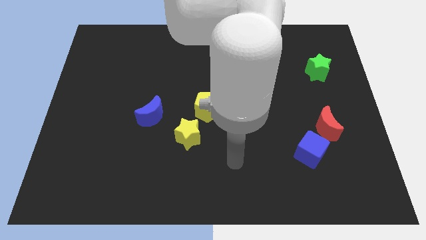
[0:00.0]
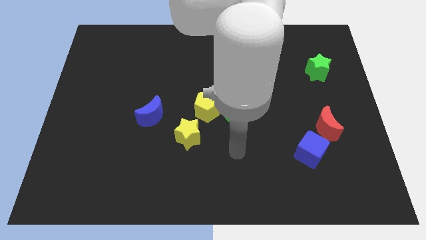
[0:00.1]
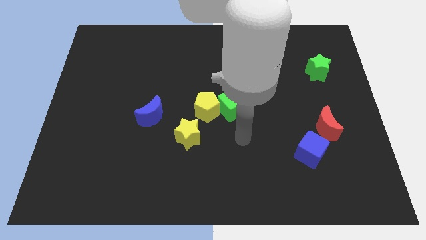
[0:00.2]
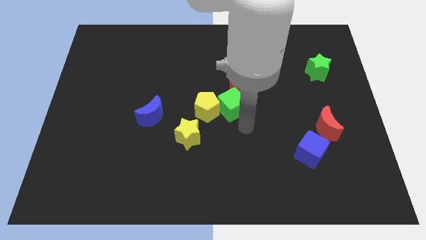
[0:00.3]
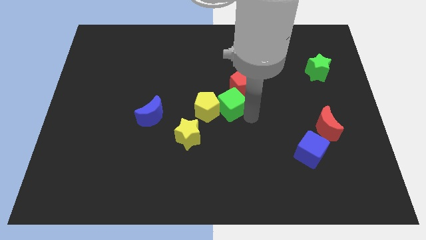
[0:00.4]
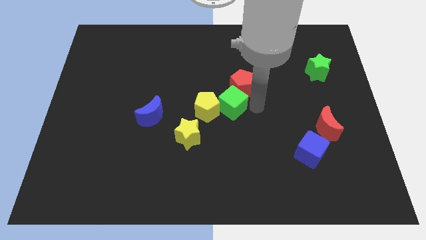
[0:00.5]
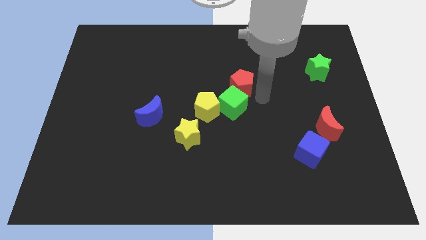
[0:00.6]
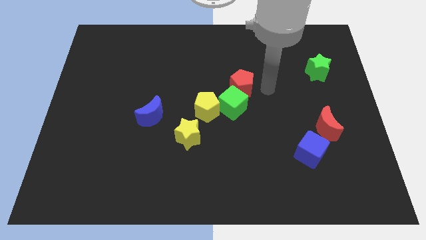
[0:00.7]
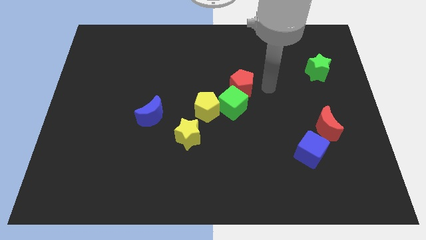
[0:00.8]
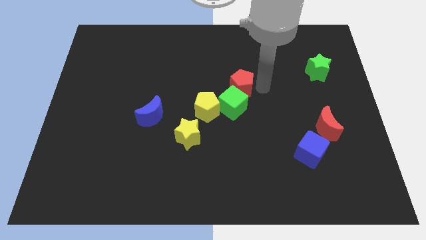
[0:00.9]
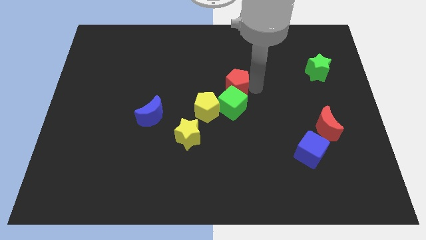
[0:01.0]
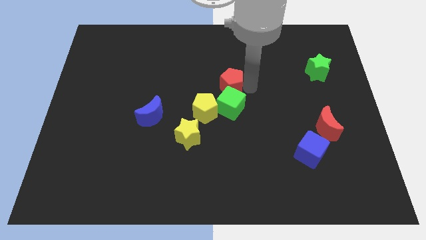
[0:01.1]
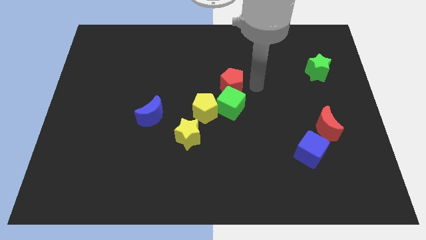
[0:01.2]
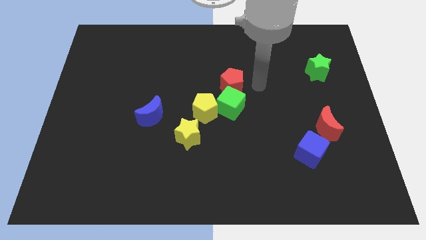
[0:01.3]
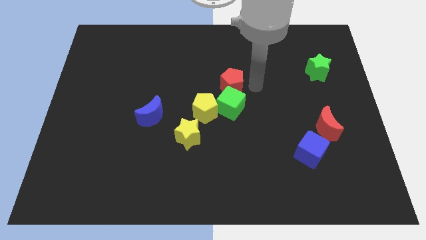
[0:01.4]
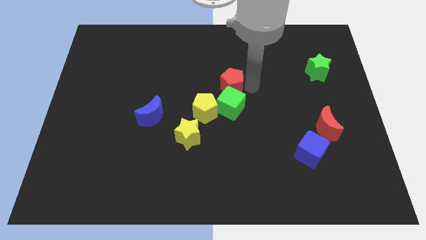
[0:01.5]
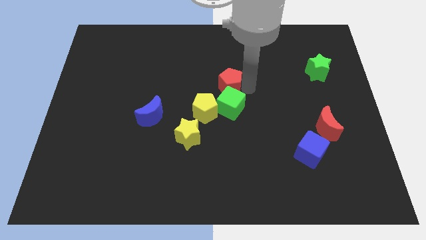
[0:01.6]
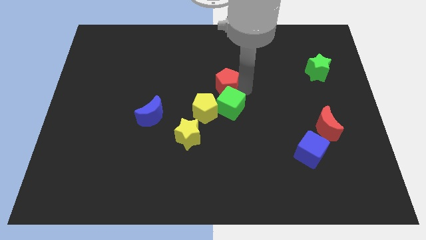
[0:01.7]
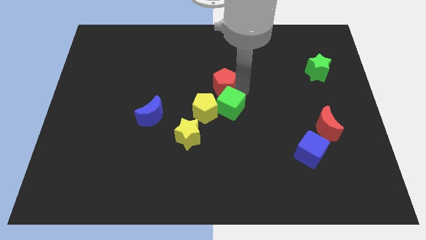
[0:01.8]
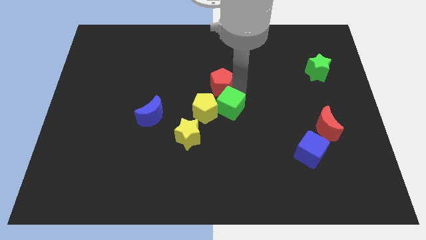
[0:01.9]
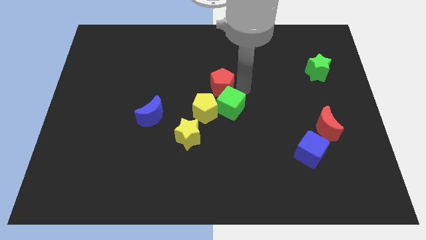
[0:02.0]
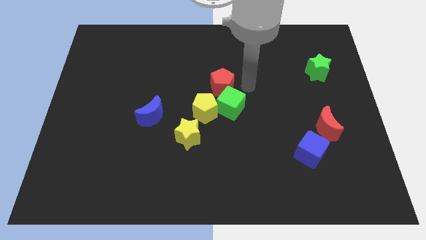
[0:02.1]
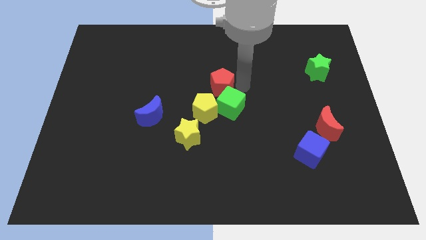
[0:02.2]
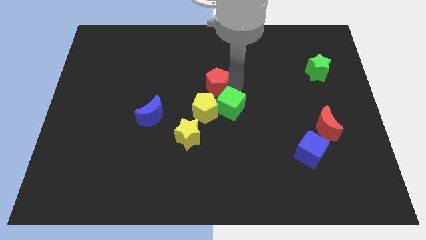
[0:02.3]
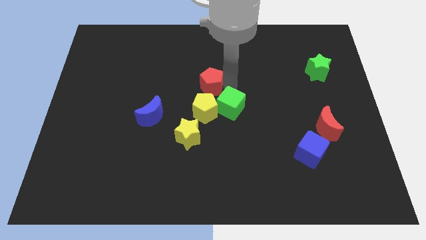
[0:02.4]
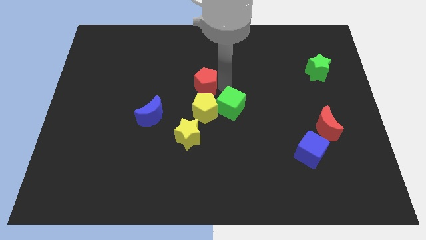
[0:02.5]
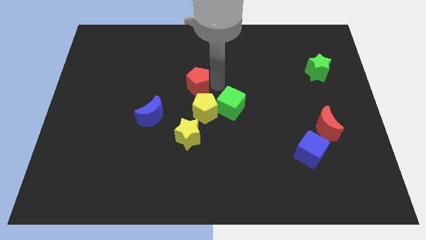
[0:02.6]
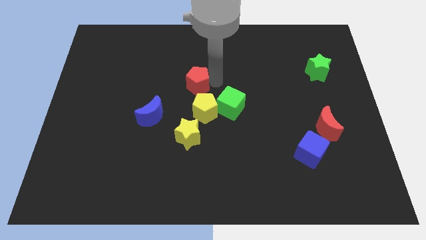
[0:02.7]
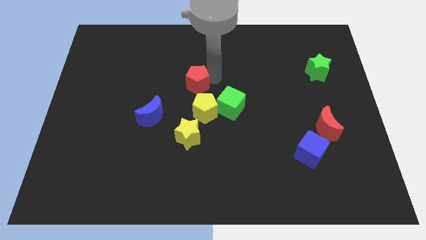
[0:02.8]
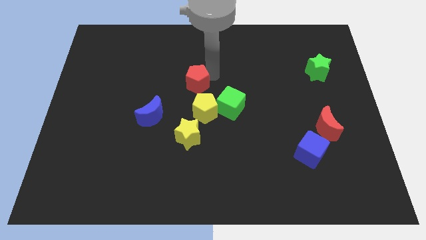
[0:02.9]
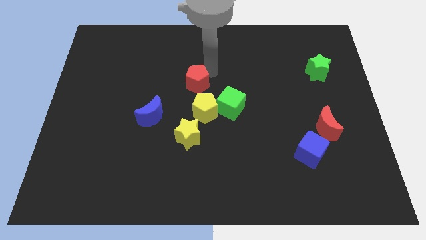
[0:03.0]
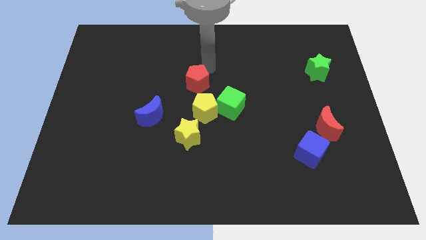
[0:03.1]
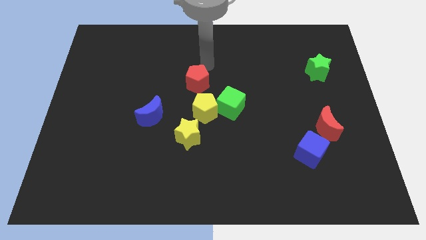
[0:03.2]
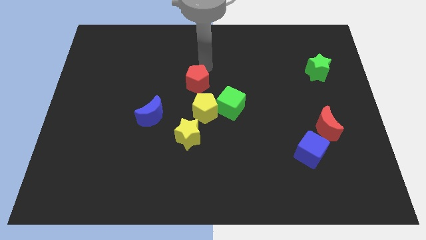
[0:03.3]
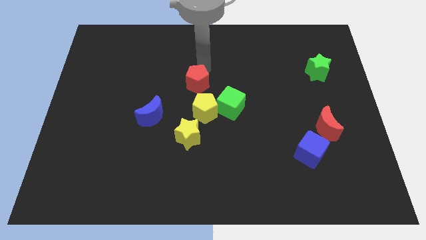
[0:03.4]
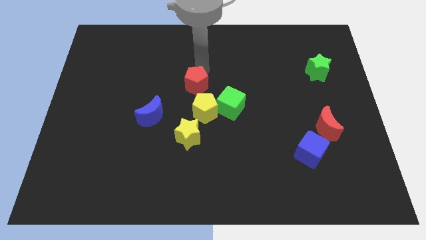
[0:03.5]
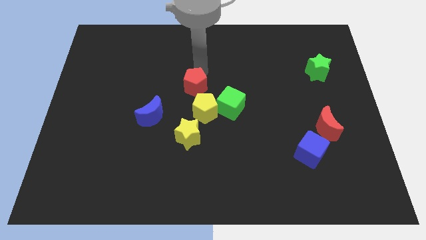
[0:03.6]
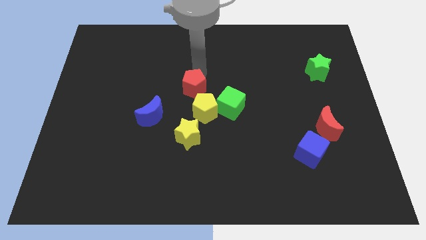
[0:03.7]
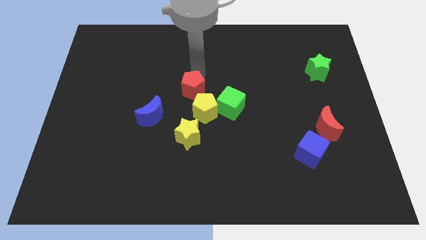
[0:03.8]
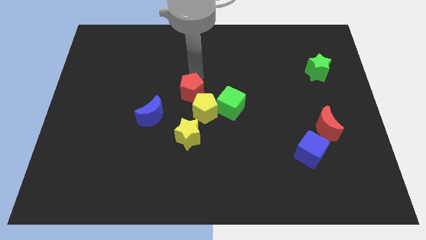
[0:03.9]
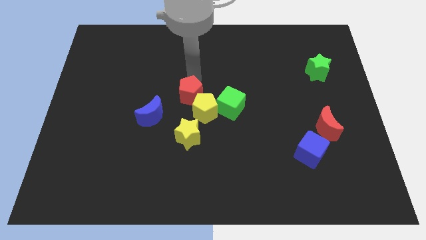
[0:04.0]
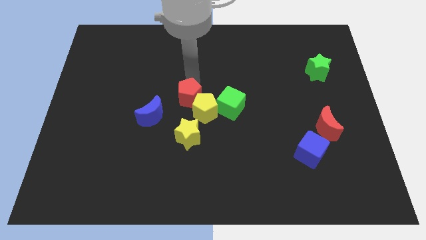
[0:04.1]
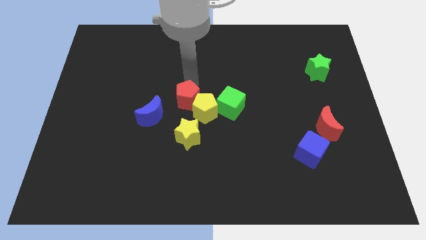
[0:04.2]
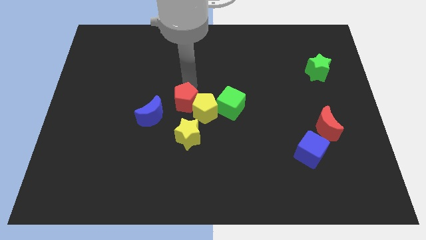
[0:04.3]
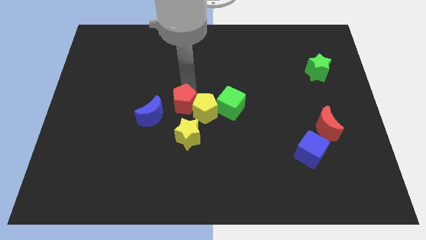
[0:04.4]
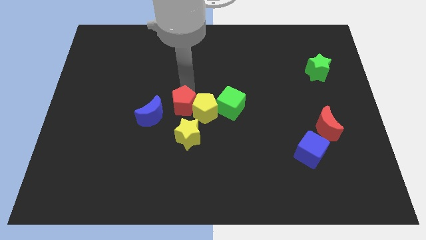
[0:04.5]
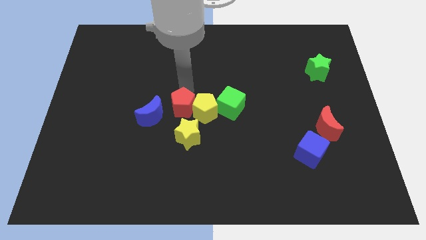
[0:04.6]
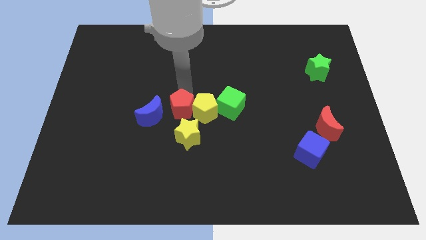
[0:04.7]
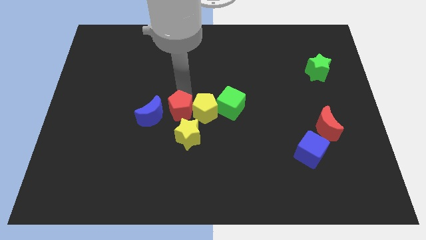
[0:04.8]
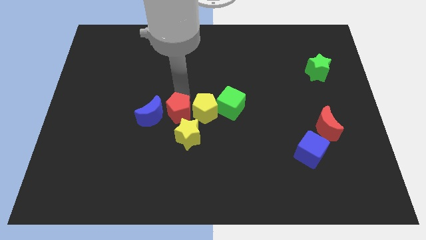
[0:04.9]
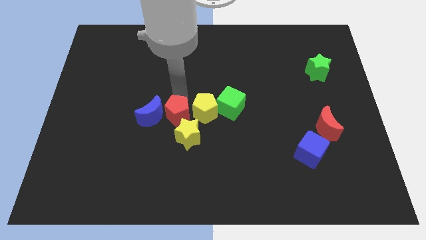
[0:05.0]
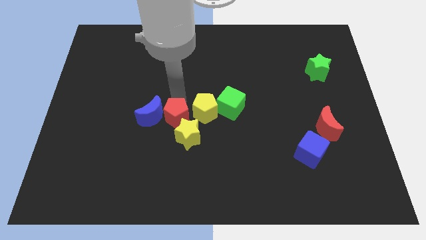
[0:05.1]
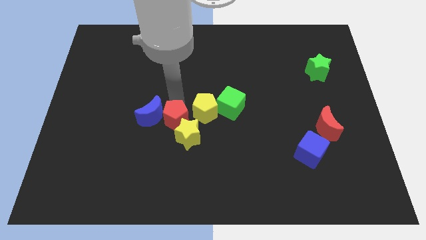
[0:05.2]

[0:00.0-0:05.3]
push the red pentagon to the yellow star

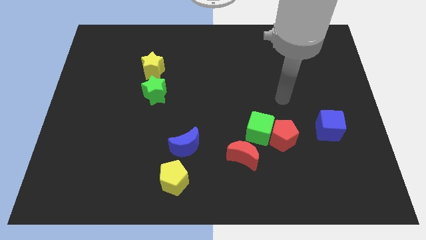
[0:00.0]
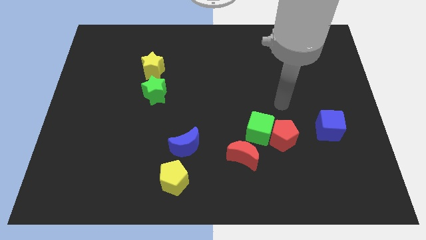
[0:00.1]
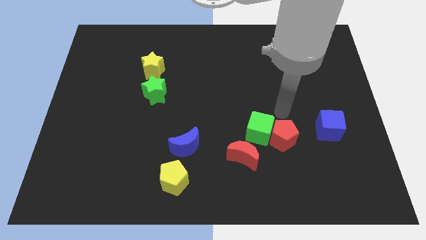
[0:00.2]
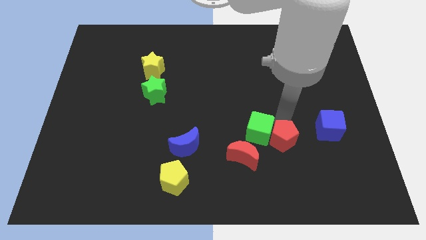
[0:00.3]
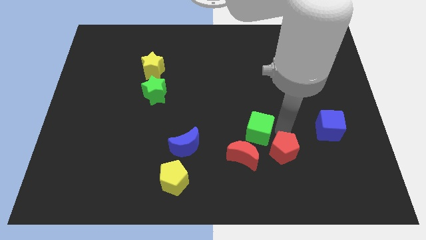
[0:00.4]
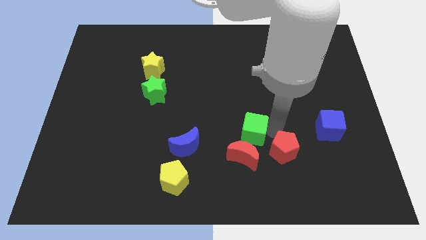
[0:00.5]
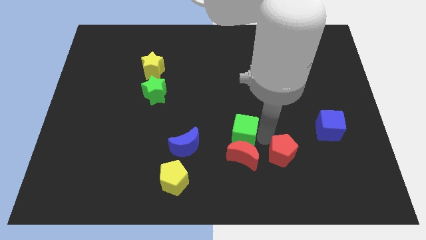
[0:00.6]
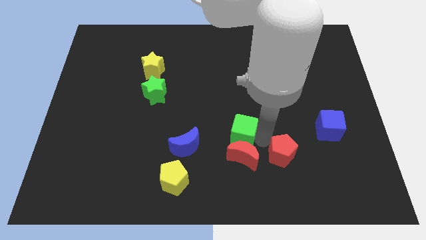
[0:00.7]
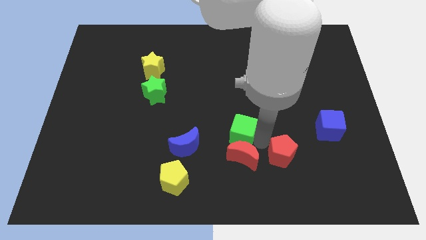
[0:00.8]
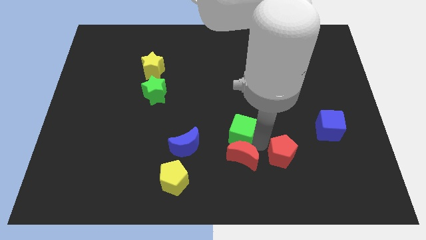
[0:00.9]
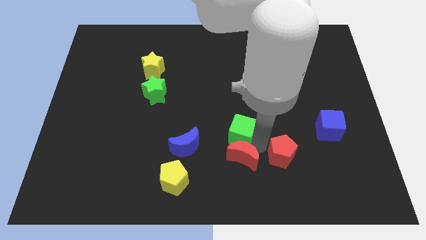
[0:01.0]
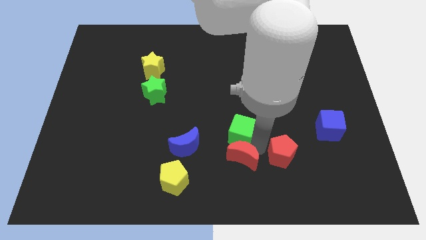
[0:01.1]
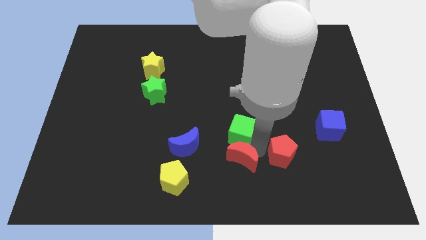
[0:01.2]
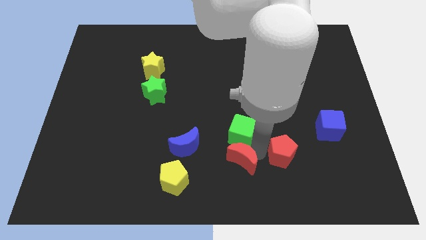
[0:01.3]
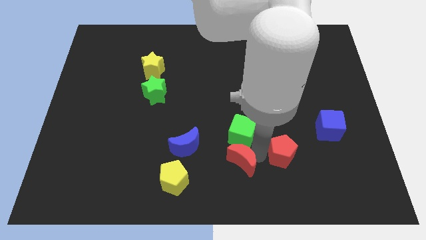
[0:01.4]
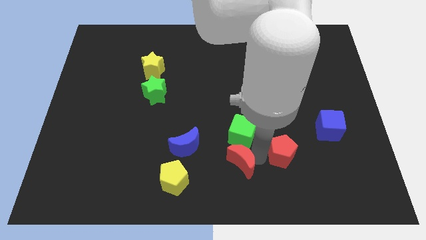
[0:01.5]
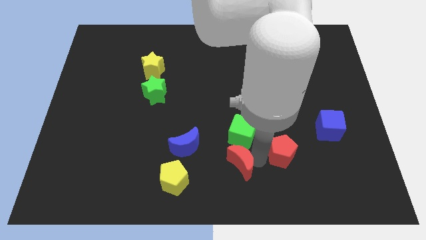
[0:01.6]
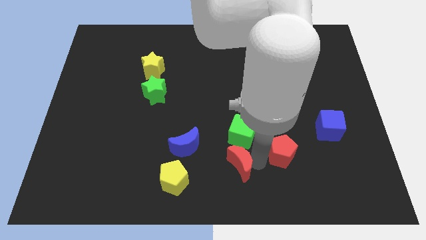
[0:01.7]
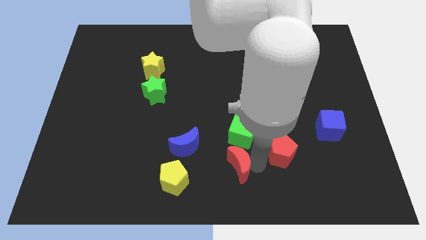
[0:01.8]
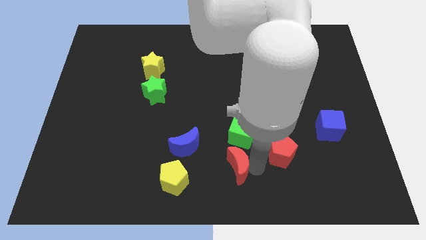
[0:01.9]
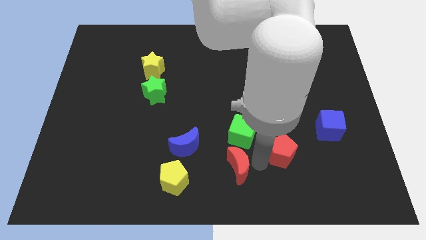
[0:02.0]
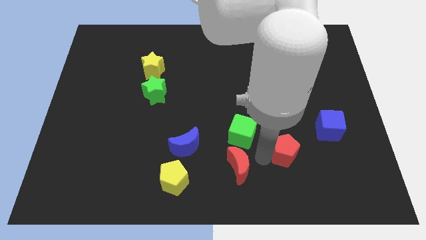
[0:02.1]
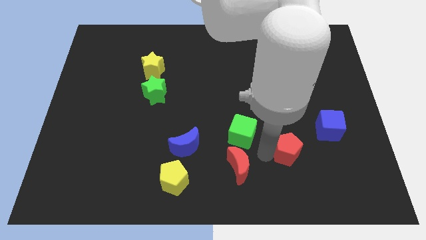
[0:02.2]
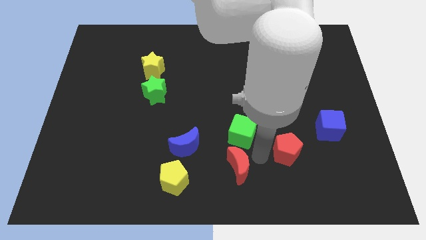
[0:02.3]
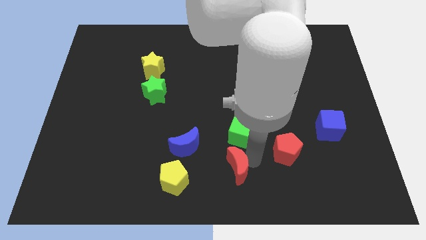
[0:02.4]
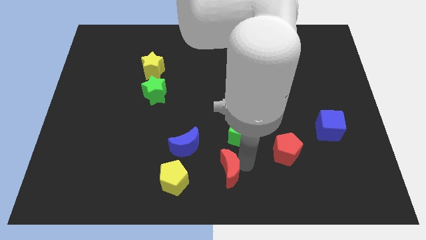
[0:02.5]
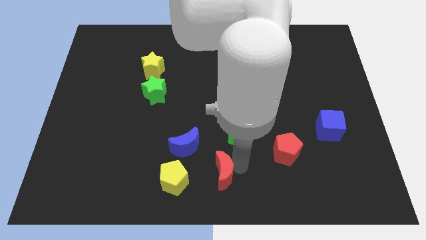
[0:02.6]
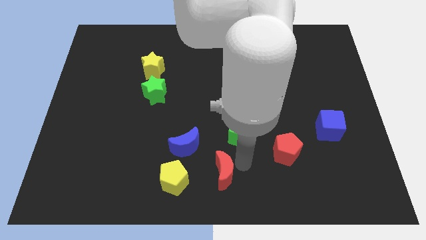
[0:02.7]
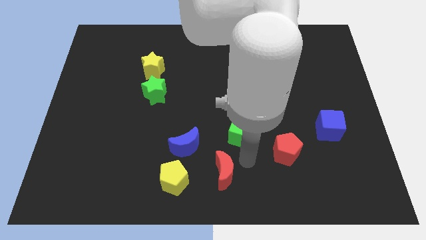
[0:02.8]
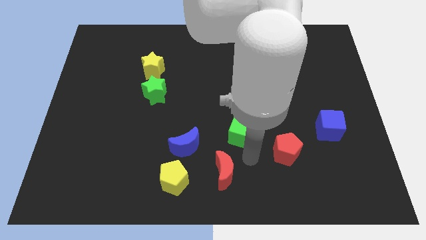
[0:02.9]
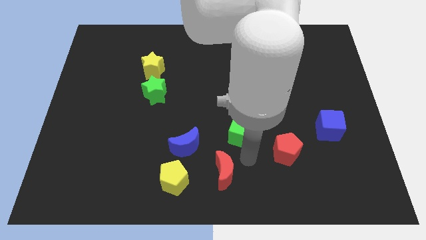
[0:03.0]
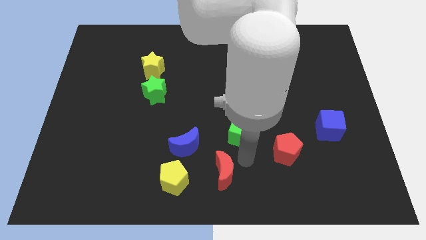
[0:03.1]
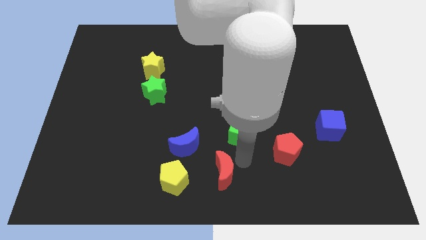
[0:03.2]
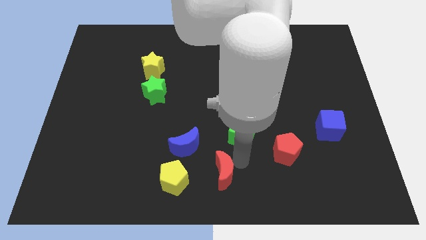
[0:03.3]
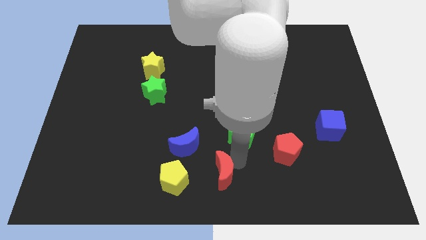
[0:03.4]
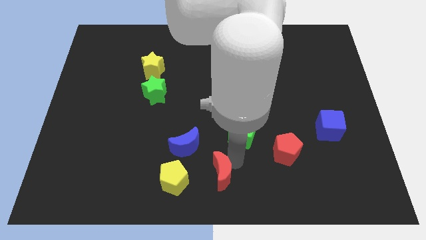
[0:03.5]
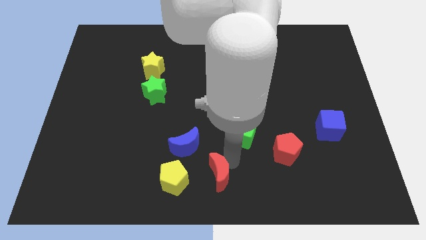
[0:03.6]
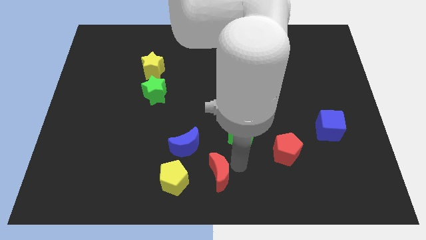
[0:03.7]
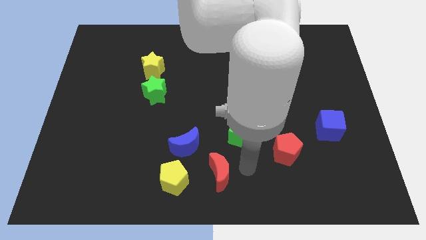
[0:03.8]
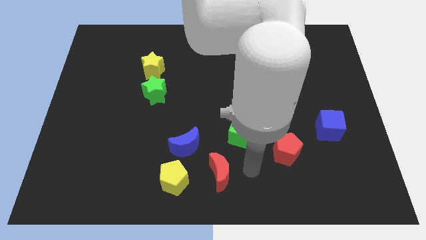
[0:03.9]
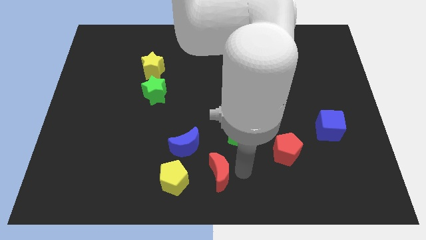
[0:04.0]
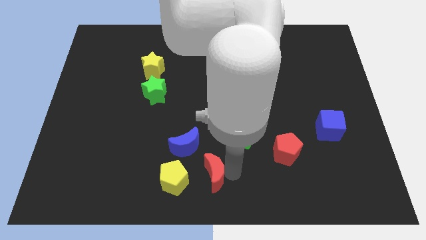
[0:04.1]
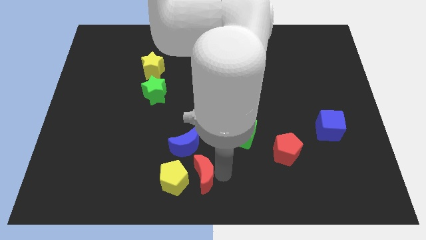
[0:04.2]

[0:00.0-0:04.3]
put the red moon towards the yellow pentagon
